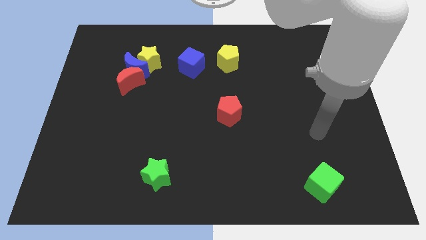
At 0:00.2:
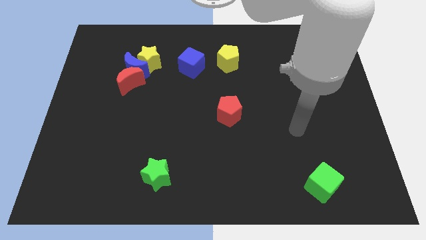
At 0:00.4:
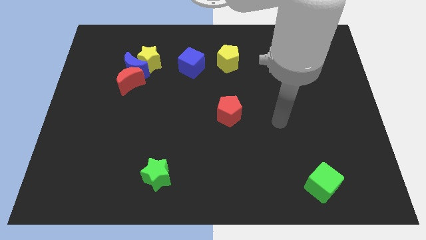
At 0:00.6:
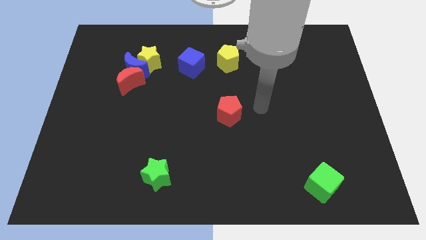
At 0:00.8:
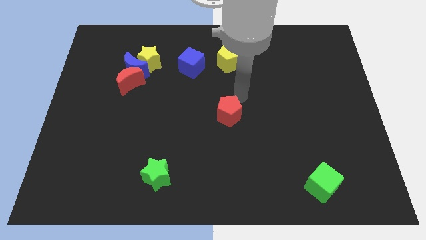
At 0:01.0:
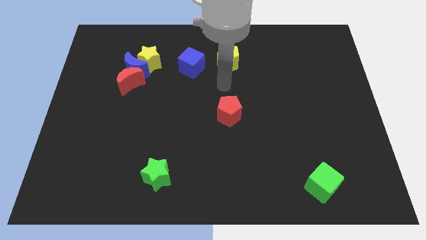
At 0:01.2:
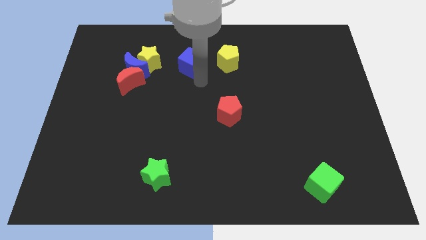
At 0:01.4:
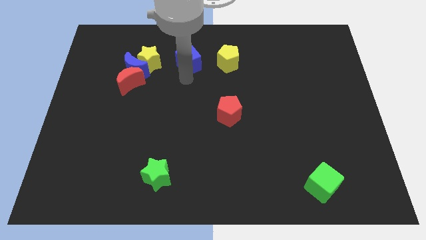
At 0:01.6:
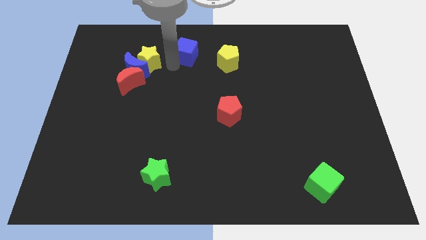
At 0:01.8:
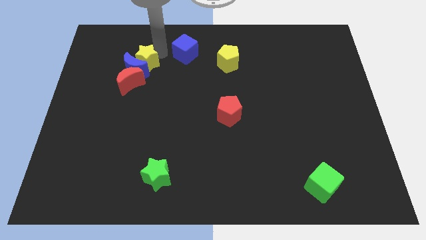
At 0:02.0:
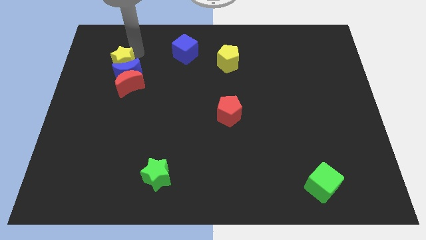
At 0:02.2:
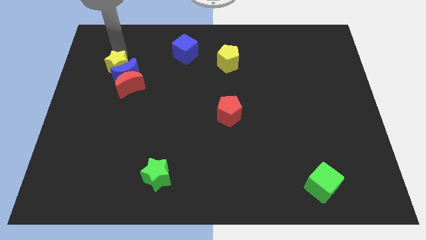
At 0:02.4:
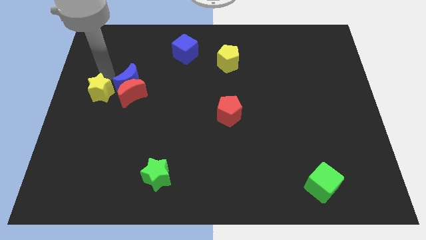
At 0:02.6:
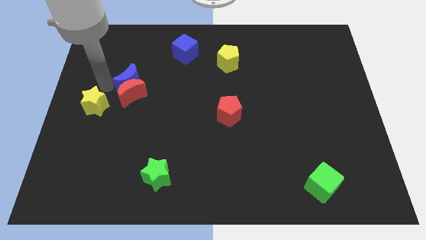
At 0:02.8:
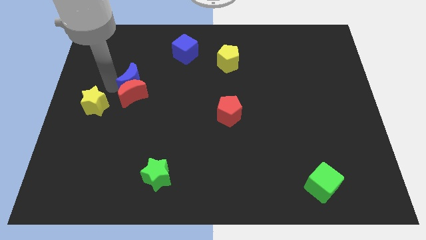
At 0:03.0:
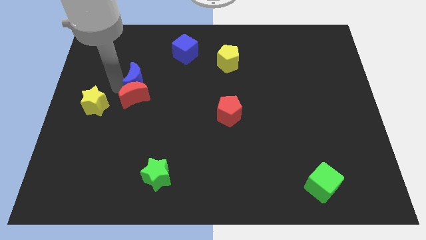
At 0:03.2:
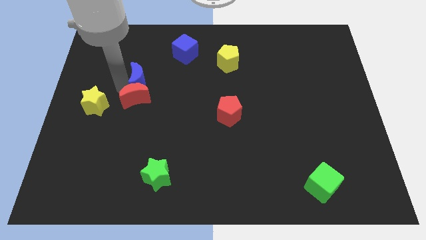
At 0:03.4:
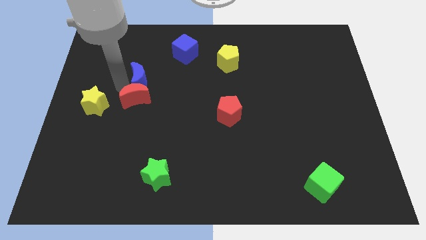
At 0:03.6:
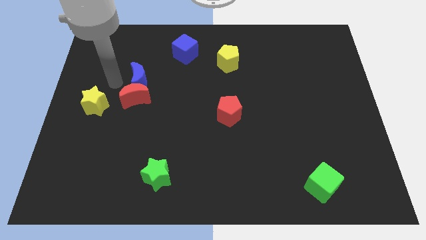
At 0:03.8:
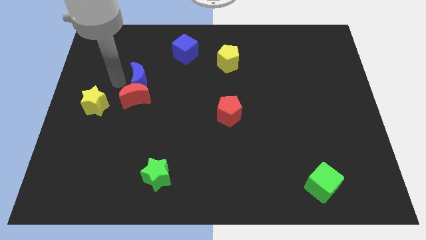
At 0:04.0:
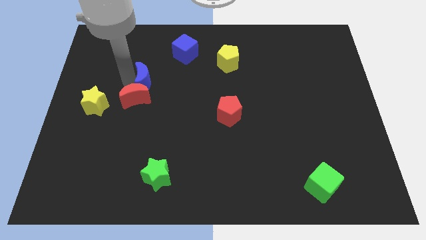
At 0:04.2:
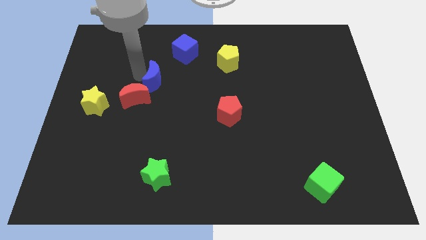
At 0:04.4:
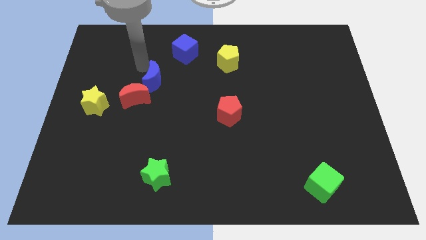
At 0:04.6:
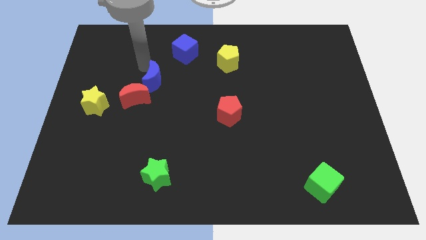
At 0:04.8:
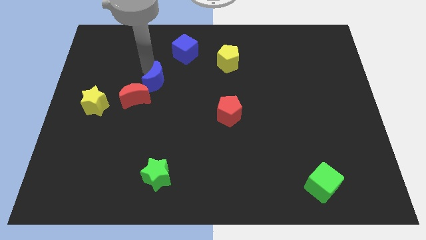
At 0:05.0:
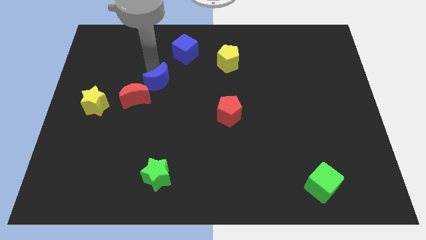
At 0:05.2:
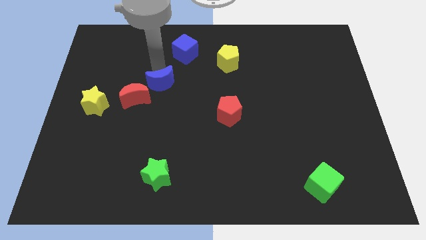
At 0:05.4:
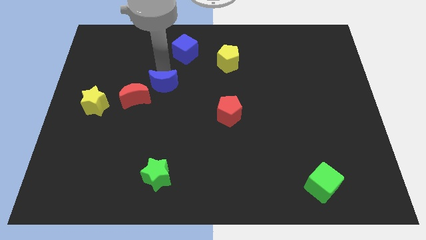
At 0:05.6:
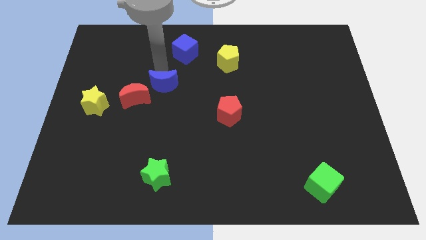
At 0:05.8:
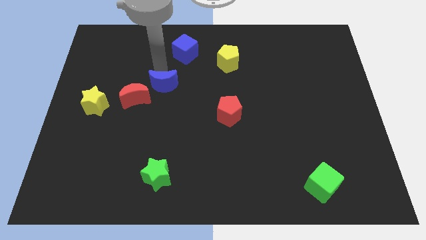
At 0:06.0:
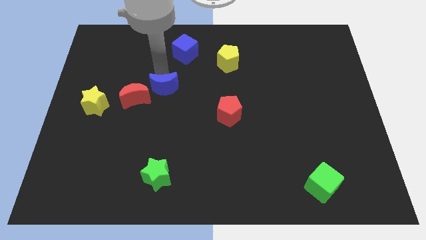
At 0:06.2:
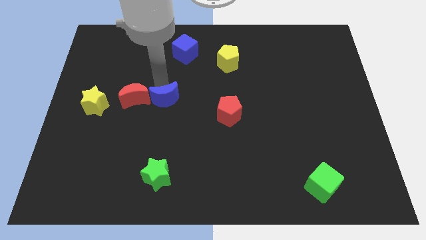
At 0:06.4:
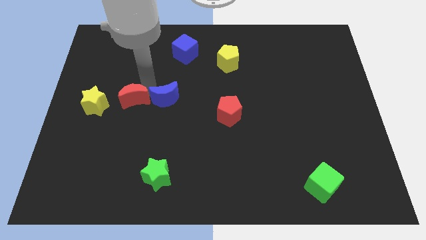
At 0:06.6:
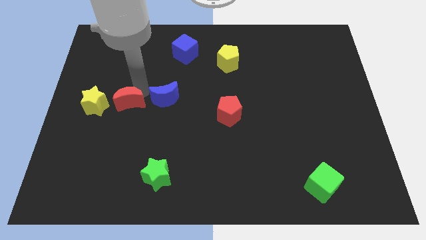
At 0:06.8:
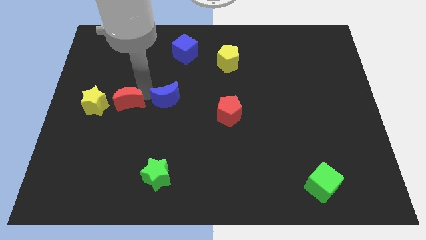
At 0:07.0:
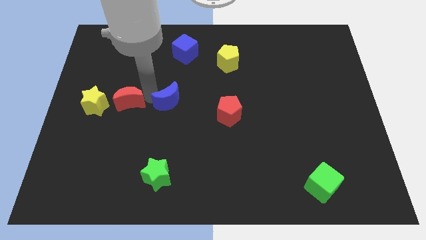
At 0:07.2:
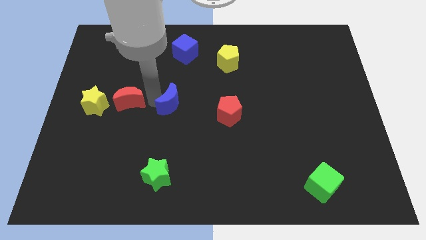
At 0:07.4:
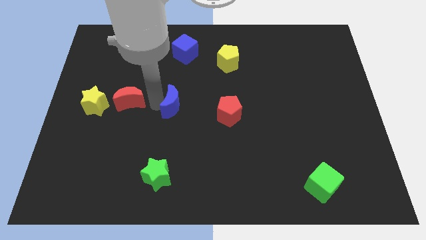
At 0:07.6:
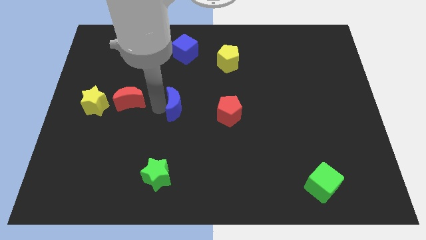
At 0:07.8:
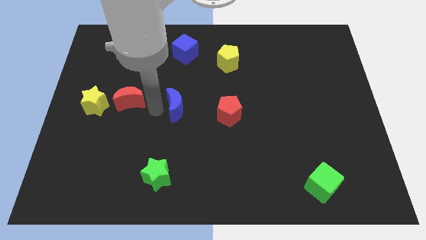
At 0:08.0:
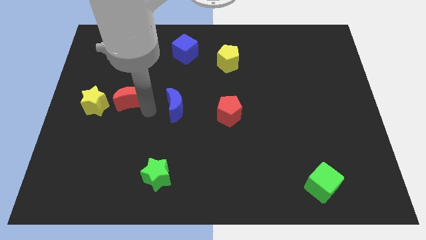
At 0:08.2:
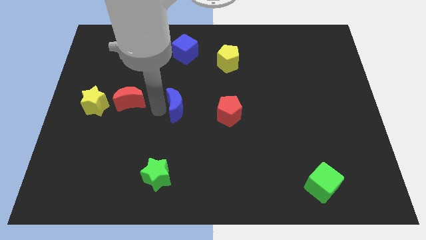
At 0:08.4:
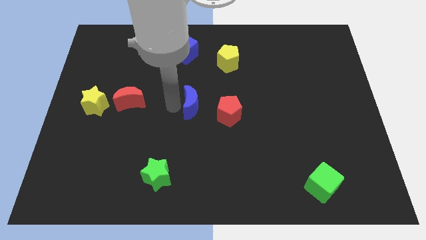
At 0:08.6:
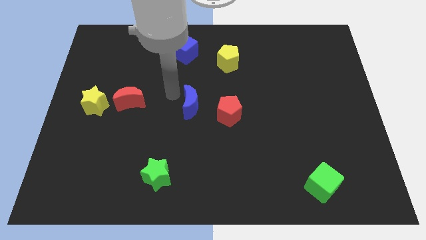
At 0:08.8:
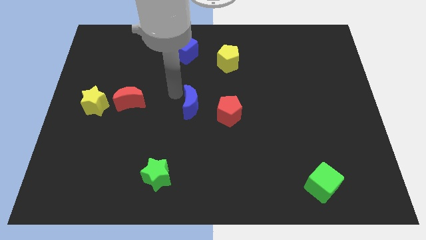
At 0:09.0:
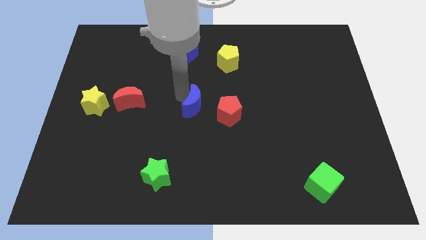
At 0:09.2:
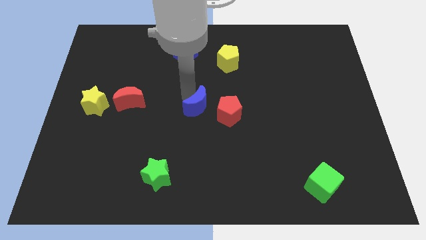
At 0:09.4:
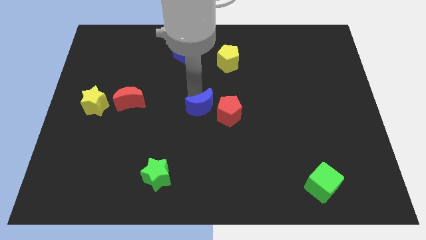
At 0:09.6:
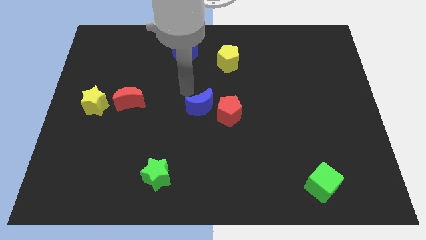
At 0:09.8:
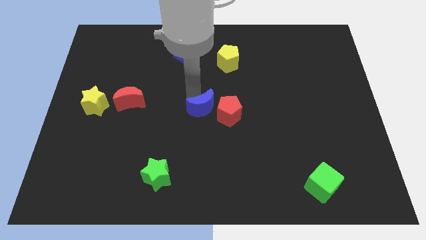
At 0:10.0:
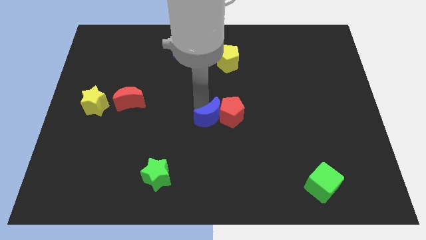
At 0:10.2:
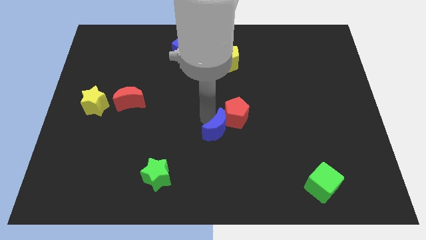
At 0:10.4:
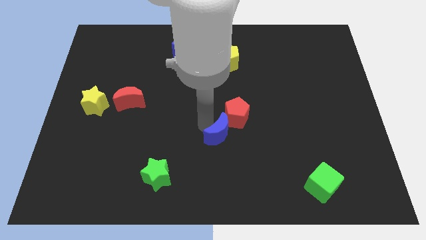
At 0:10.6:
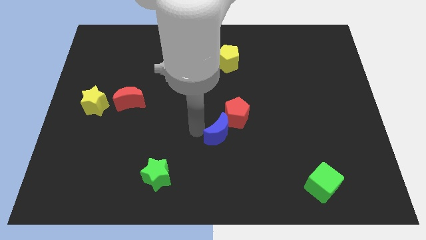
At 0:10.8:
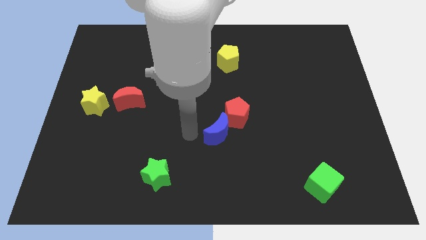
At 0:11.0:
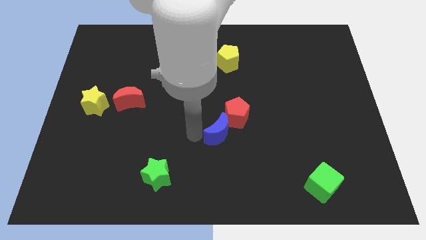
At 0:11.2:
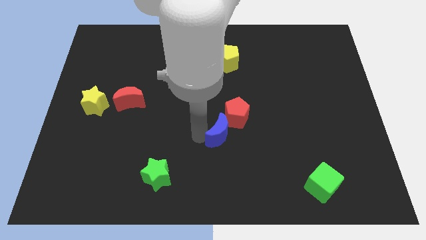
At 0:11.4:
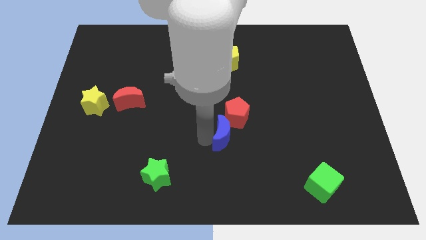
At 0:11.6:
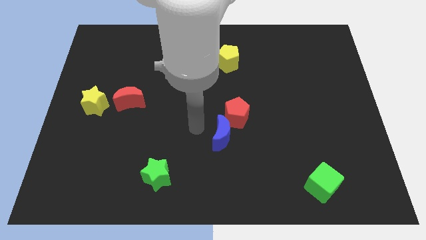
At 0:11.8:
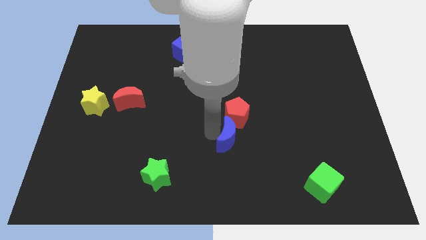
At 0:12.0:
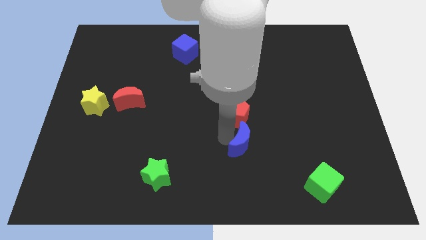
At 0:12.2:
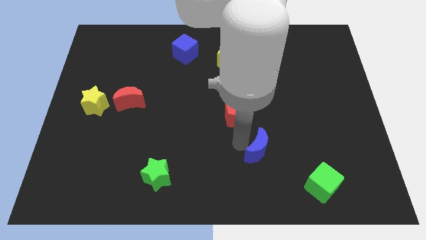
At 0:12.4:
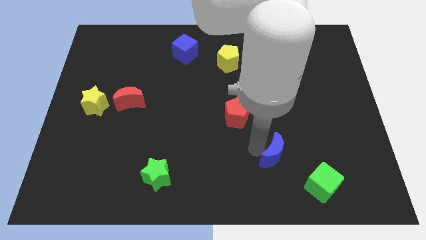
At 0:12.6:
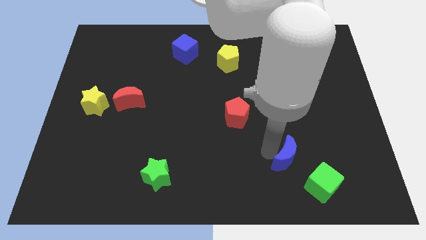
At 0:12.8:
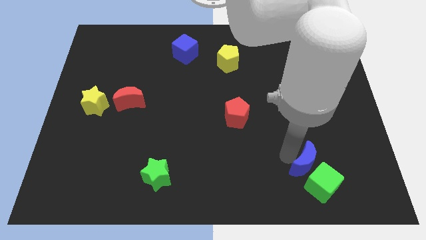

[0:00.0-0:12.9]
put the blue moon next to the green cube

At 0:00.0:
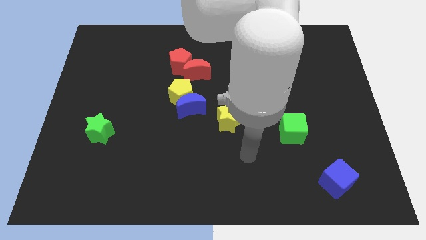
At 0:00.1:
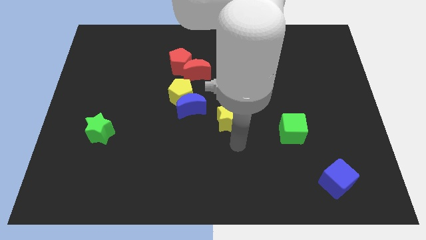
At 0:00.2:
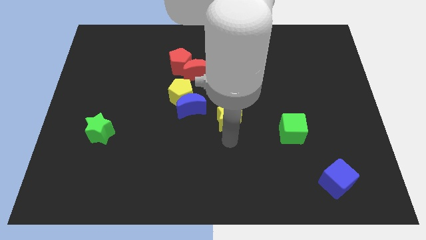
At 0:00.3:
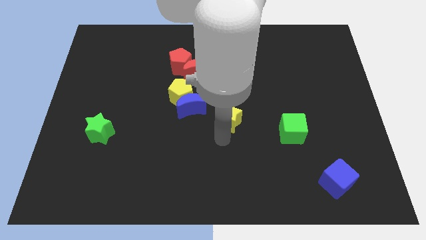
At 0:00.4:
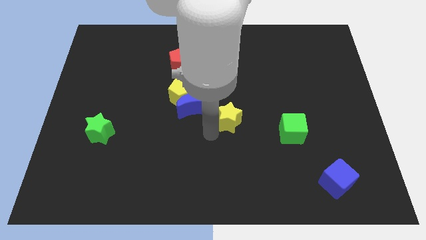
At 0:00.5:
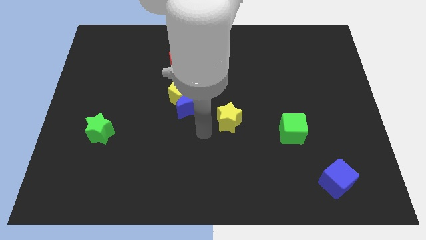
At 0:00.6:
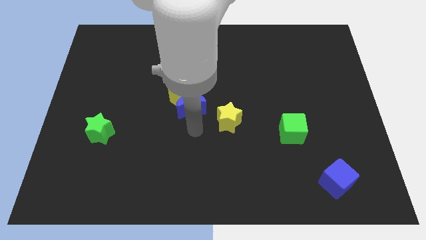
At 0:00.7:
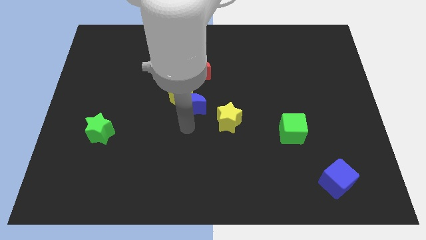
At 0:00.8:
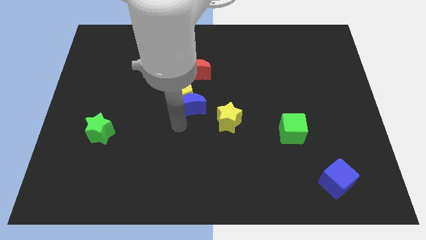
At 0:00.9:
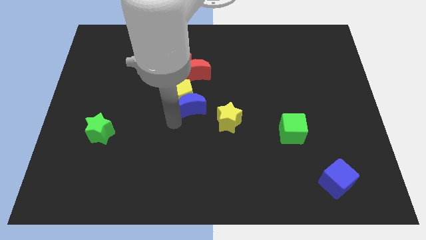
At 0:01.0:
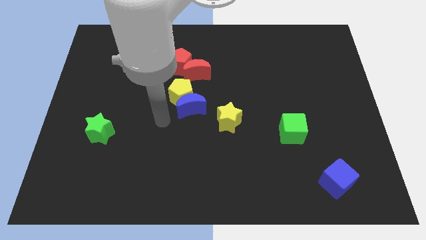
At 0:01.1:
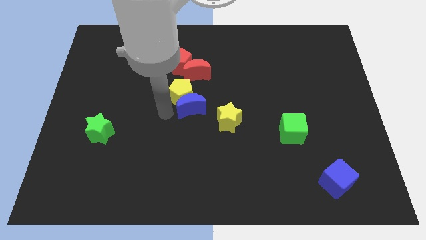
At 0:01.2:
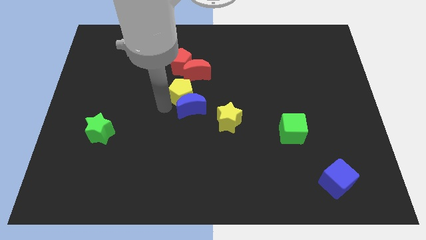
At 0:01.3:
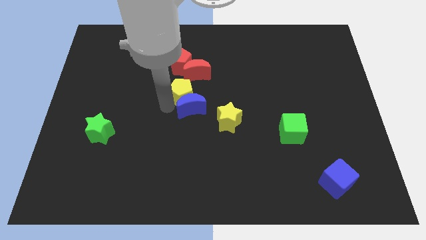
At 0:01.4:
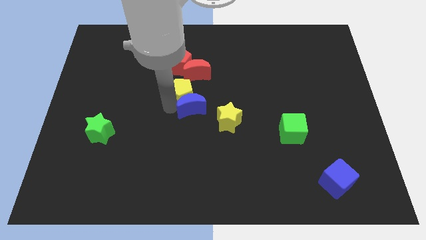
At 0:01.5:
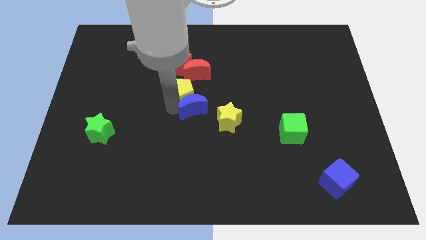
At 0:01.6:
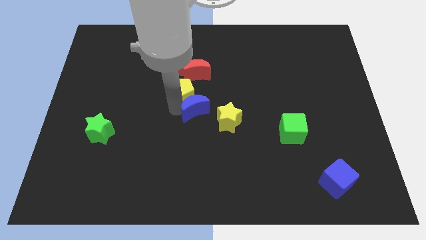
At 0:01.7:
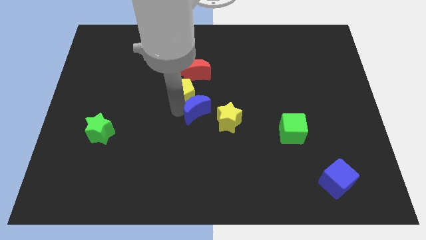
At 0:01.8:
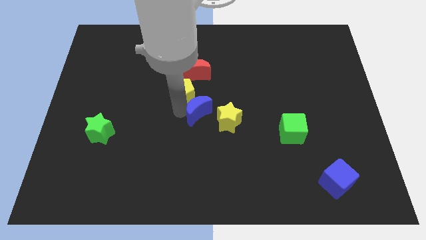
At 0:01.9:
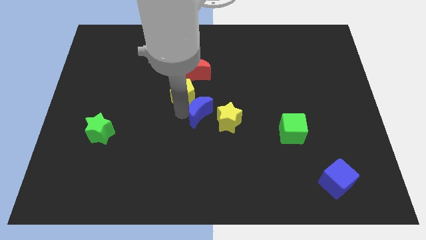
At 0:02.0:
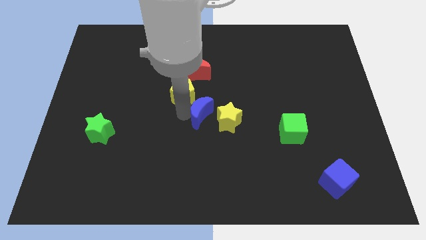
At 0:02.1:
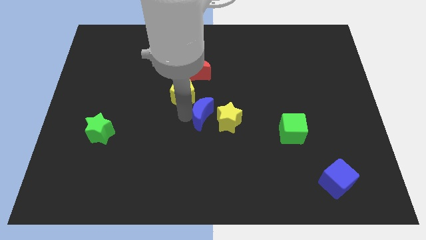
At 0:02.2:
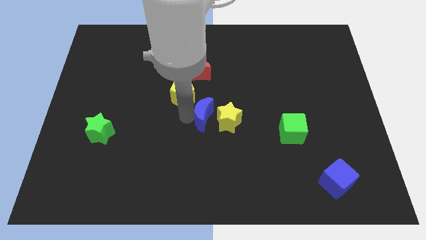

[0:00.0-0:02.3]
slide the blue moon towards the yellow star
